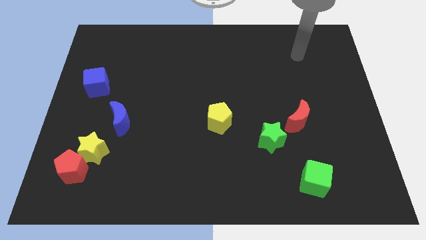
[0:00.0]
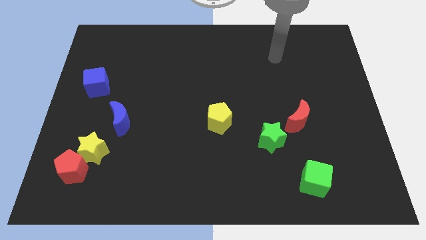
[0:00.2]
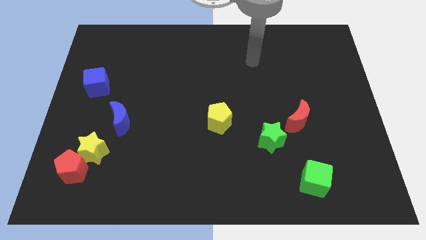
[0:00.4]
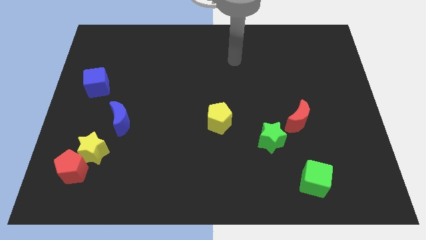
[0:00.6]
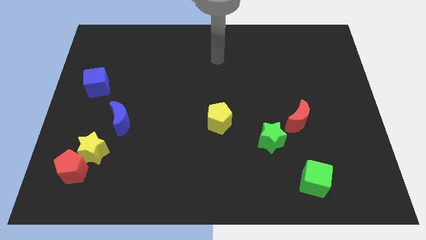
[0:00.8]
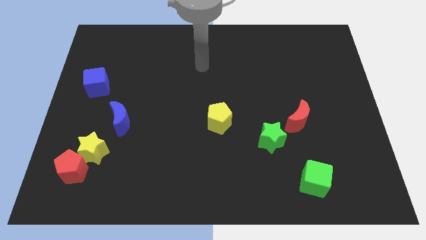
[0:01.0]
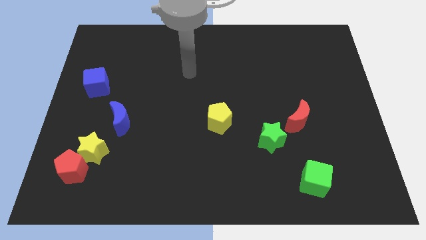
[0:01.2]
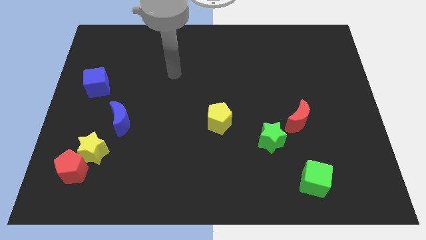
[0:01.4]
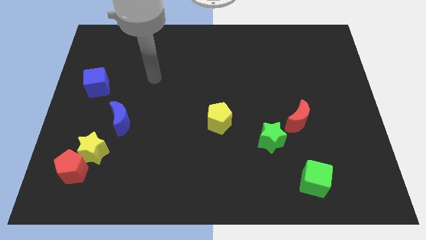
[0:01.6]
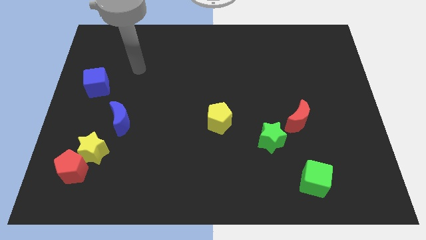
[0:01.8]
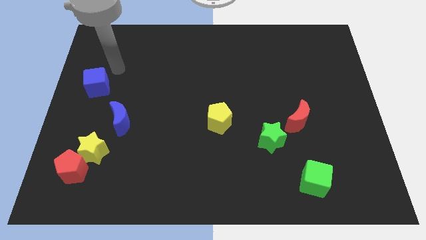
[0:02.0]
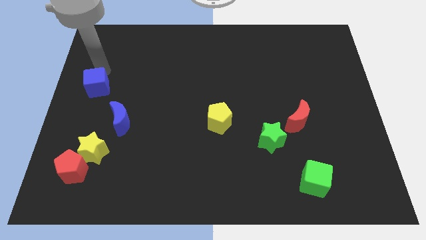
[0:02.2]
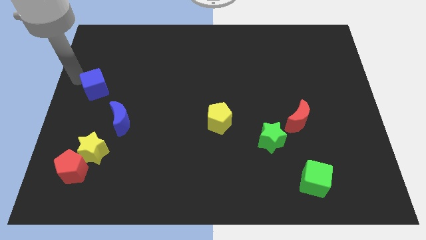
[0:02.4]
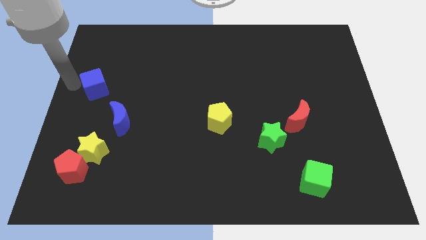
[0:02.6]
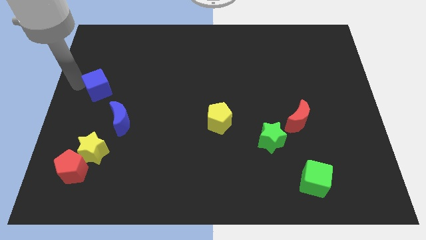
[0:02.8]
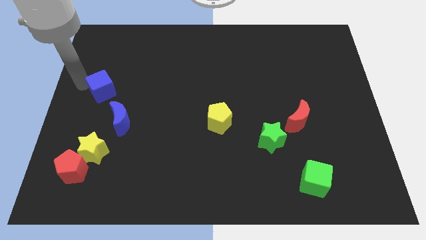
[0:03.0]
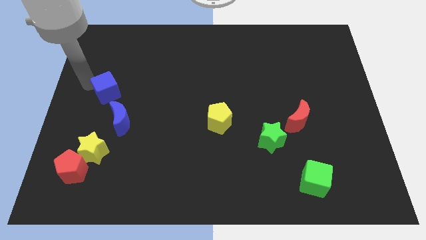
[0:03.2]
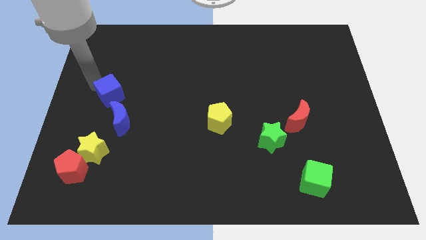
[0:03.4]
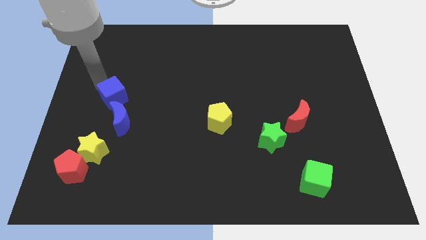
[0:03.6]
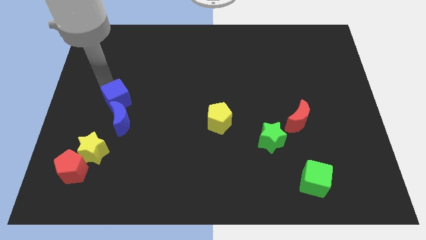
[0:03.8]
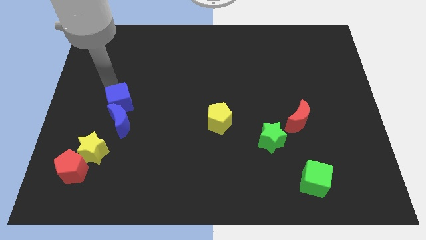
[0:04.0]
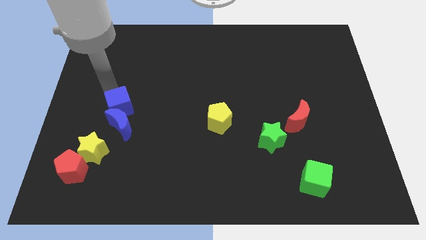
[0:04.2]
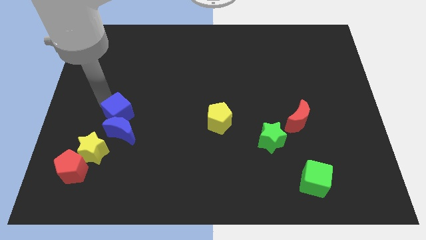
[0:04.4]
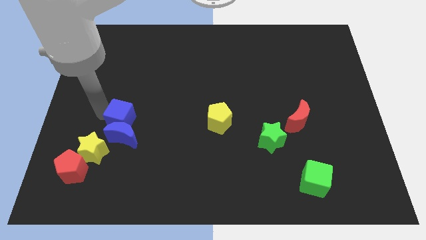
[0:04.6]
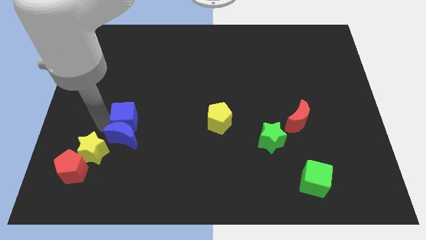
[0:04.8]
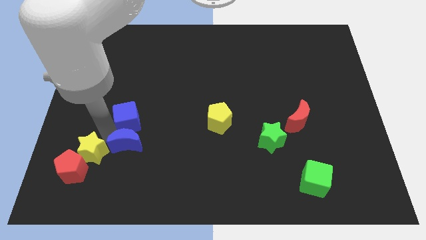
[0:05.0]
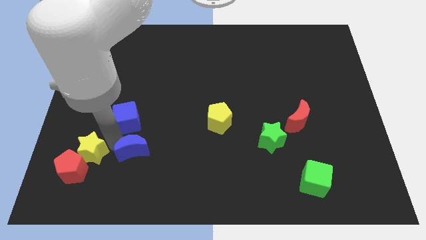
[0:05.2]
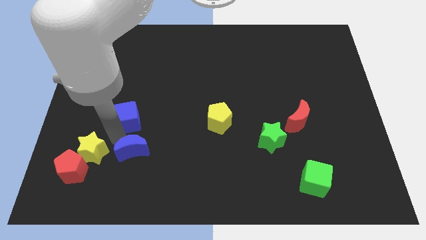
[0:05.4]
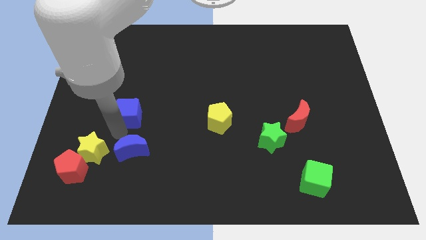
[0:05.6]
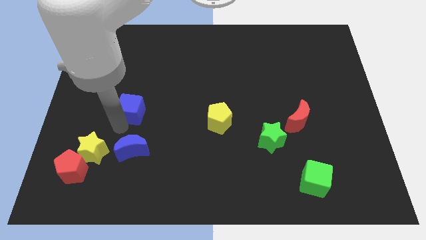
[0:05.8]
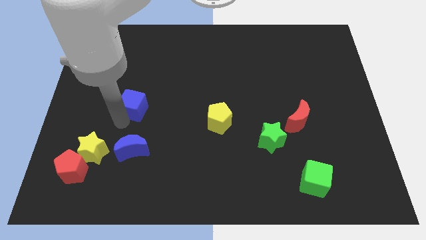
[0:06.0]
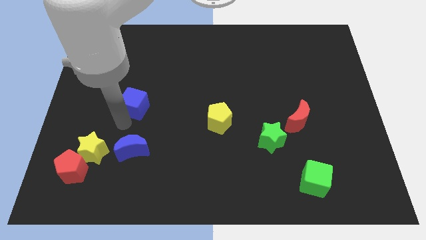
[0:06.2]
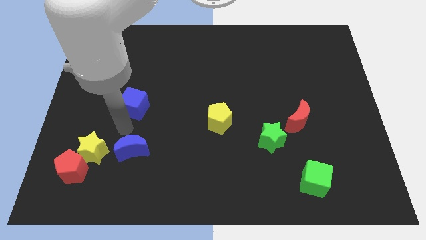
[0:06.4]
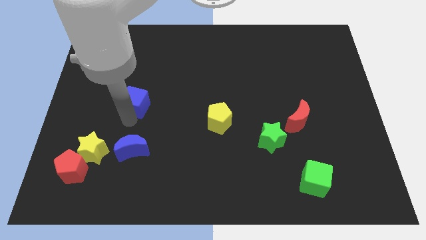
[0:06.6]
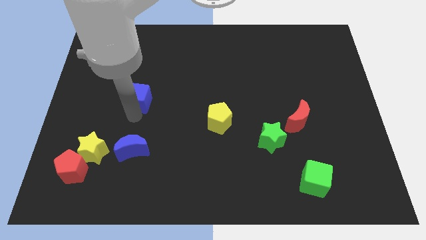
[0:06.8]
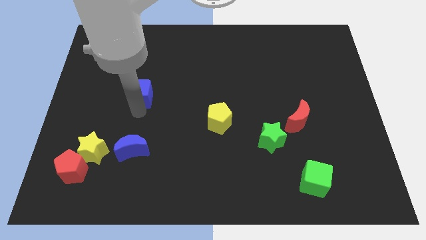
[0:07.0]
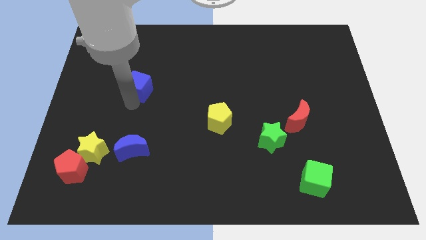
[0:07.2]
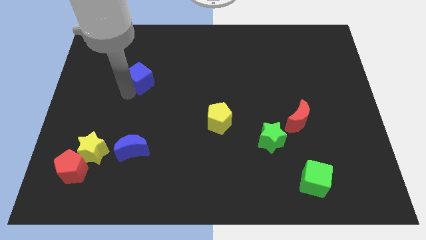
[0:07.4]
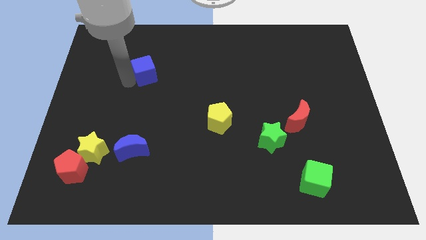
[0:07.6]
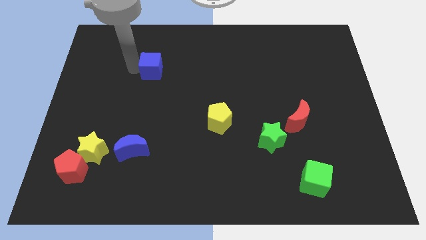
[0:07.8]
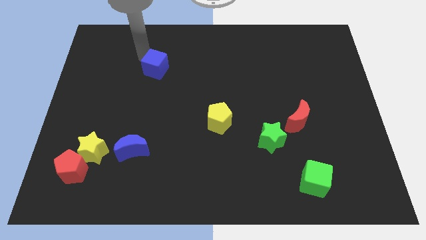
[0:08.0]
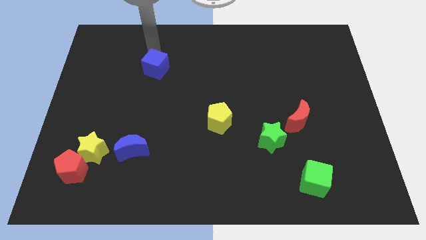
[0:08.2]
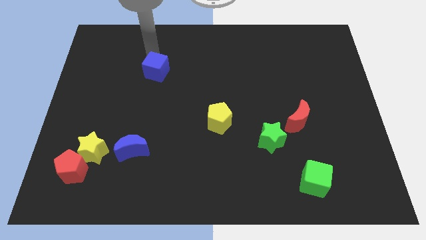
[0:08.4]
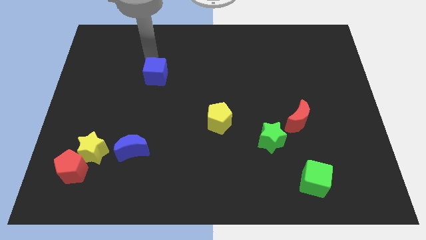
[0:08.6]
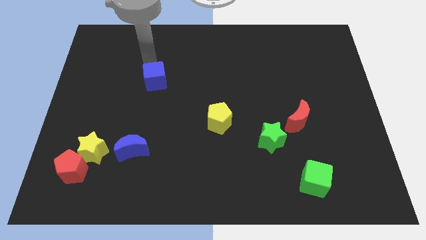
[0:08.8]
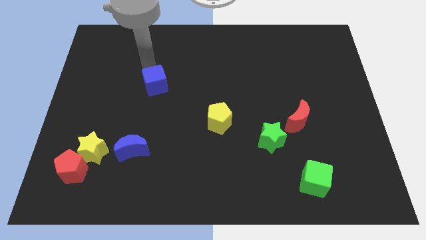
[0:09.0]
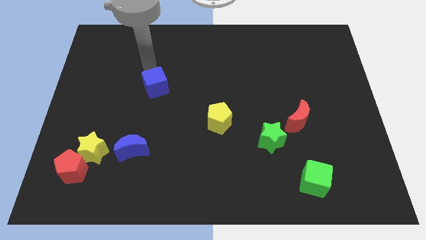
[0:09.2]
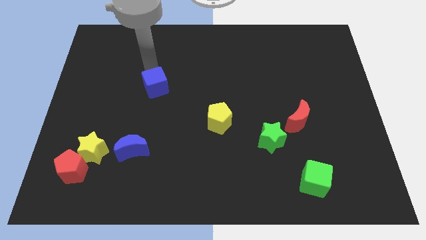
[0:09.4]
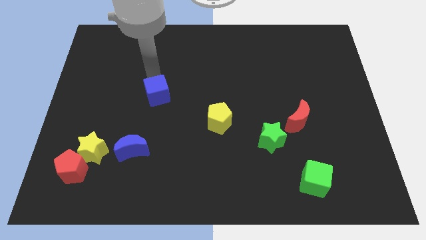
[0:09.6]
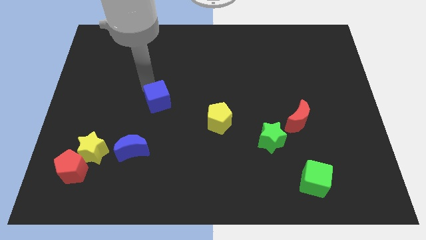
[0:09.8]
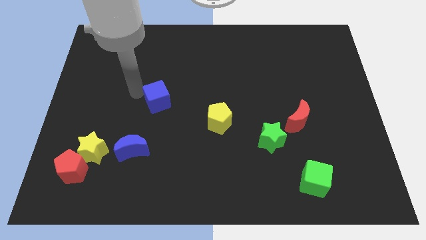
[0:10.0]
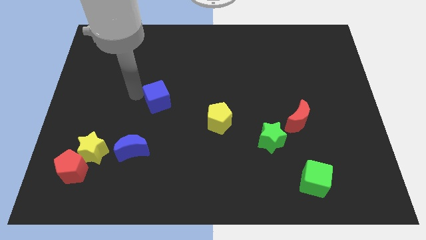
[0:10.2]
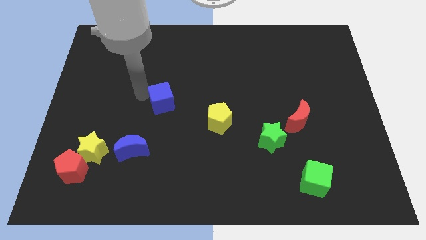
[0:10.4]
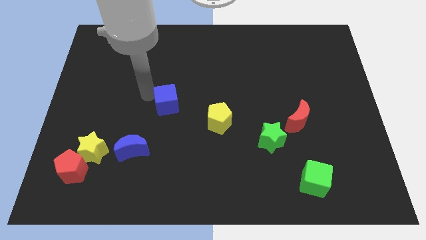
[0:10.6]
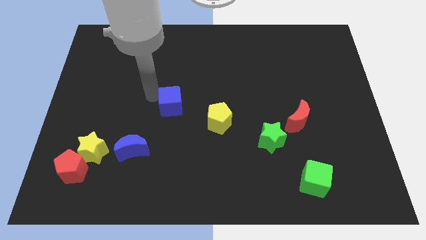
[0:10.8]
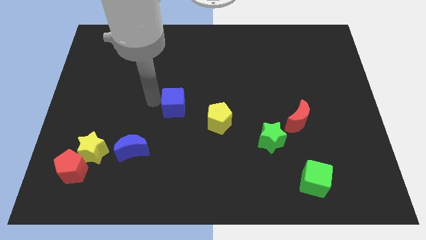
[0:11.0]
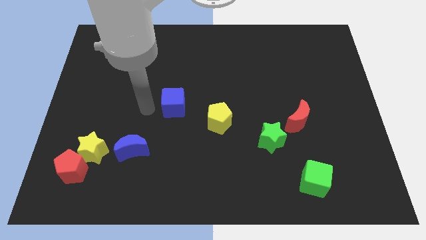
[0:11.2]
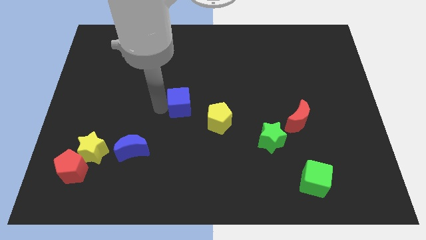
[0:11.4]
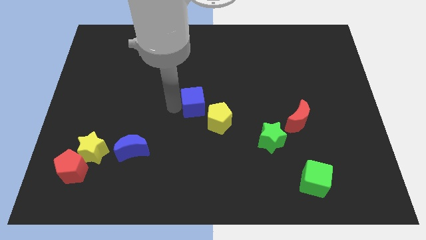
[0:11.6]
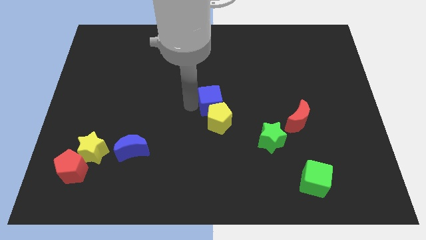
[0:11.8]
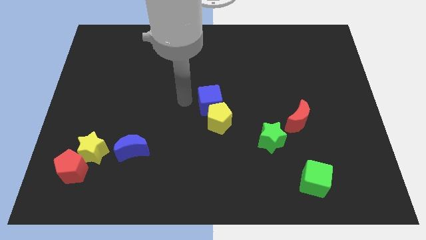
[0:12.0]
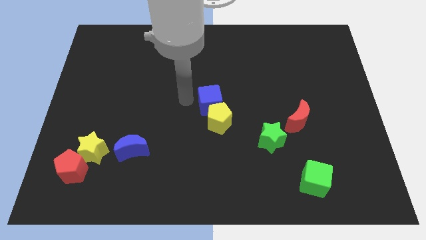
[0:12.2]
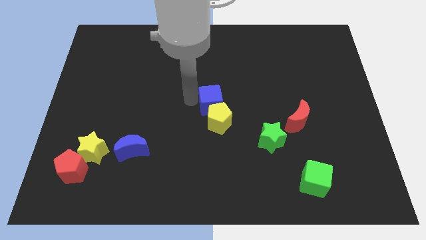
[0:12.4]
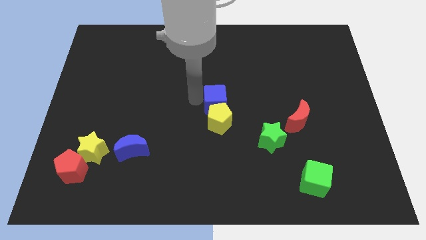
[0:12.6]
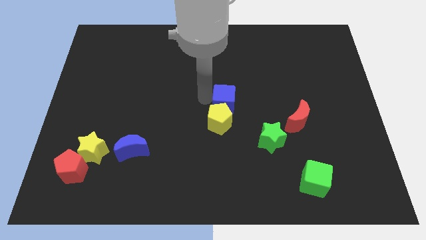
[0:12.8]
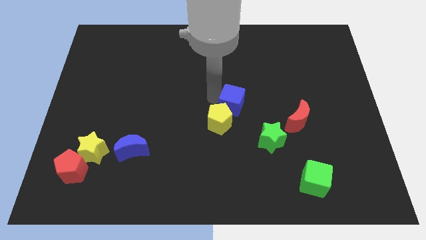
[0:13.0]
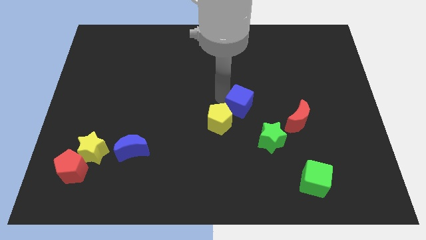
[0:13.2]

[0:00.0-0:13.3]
slide the blue cube to the right of the yellow pentagon
